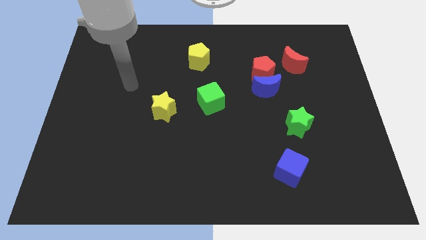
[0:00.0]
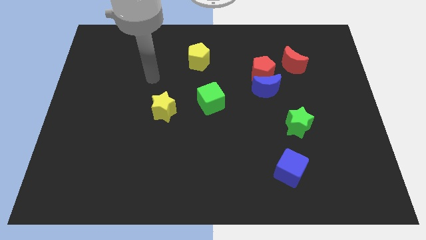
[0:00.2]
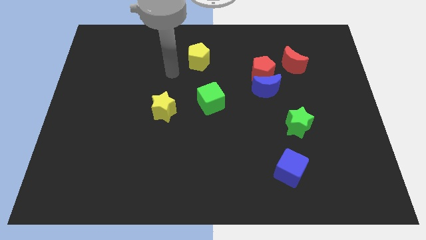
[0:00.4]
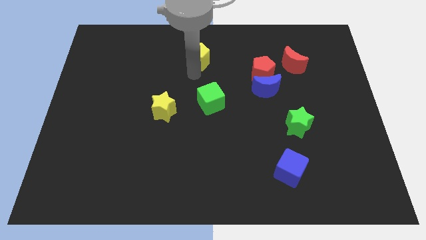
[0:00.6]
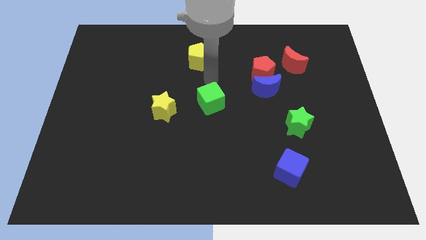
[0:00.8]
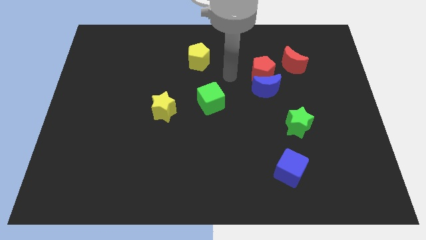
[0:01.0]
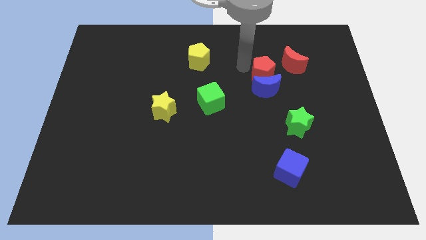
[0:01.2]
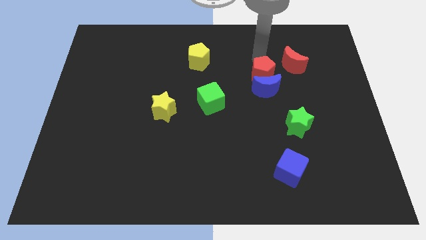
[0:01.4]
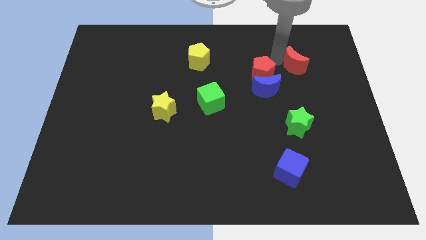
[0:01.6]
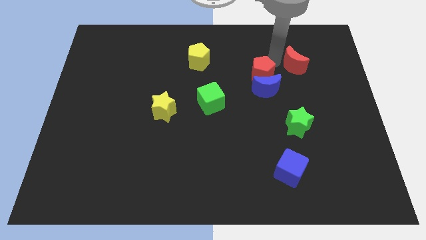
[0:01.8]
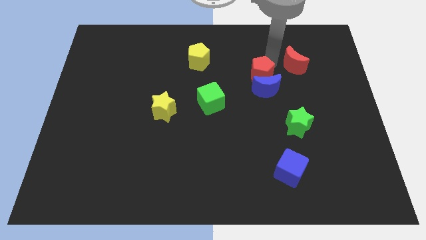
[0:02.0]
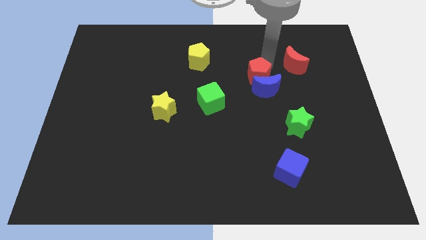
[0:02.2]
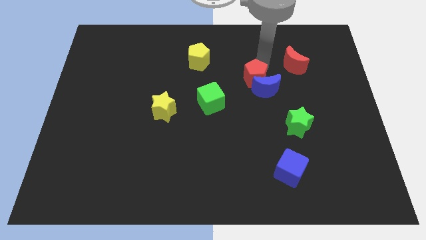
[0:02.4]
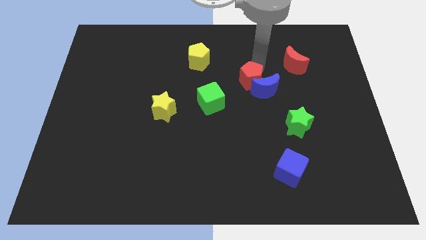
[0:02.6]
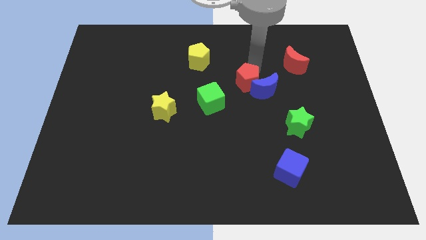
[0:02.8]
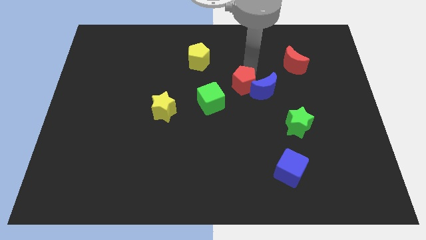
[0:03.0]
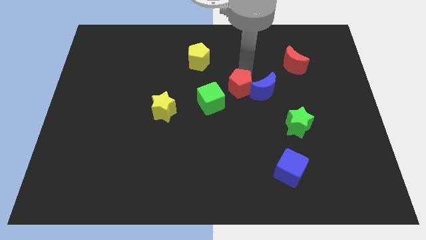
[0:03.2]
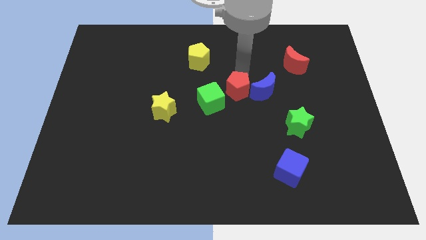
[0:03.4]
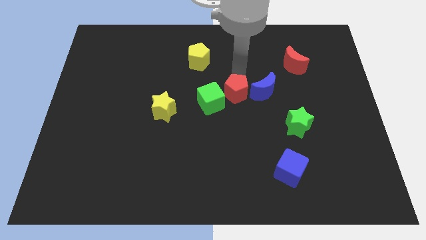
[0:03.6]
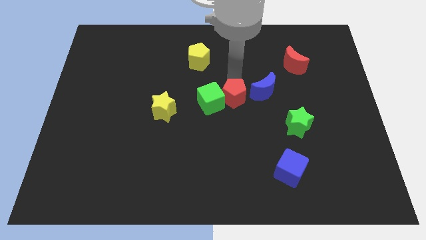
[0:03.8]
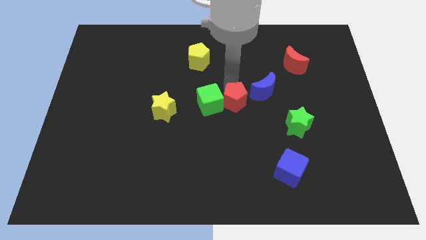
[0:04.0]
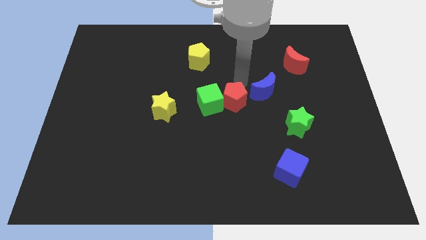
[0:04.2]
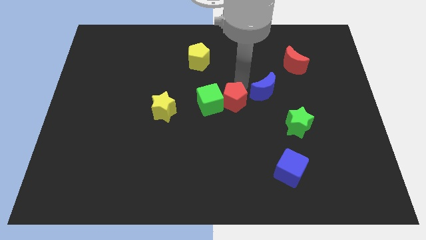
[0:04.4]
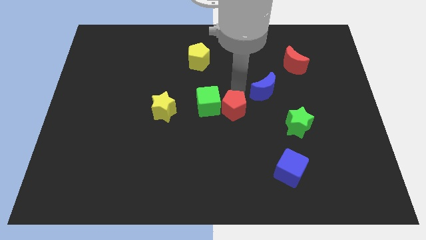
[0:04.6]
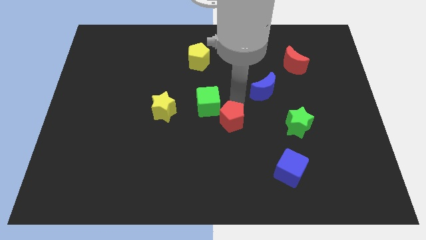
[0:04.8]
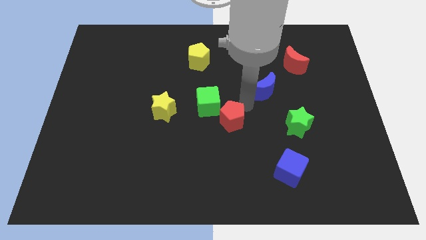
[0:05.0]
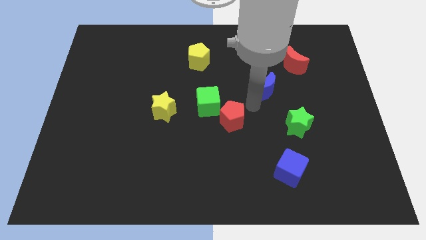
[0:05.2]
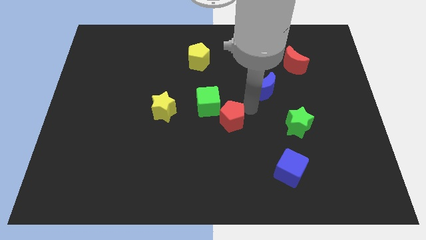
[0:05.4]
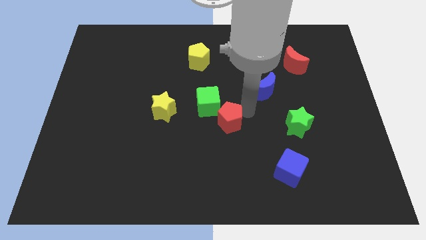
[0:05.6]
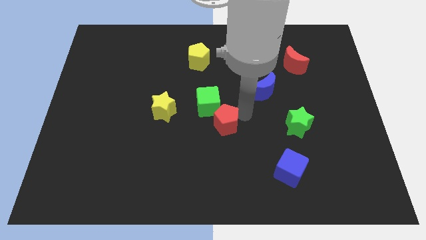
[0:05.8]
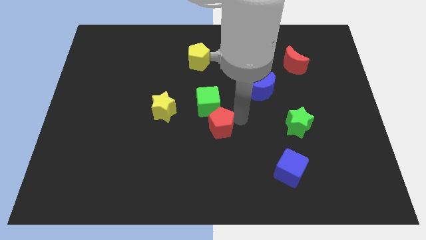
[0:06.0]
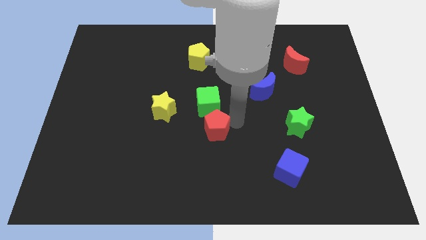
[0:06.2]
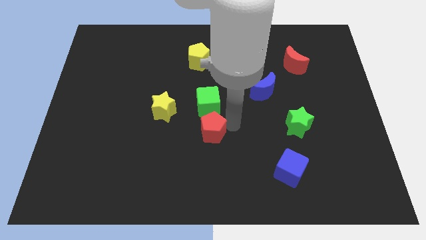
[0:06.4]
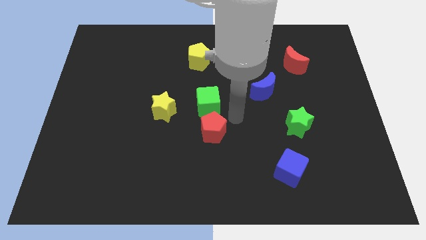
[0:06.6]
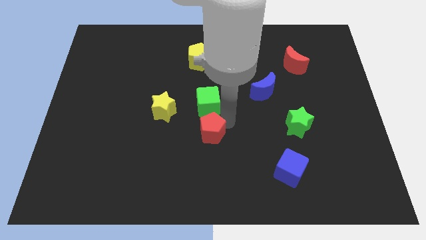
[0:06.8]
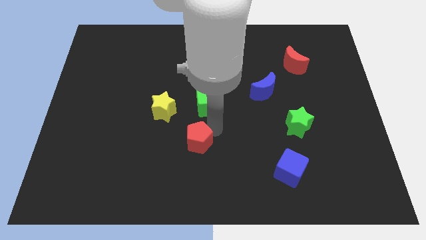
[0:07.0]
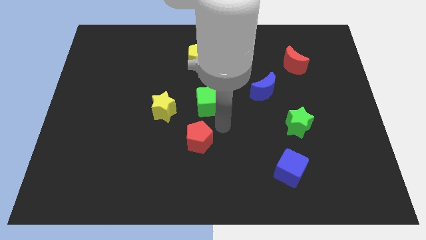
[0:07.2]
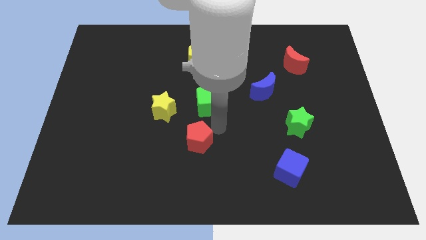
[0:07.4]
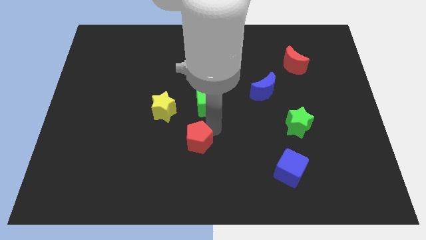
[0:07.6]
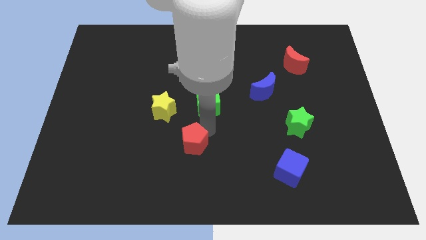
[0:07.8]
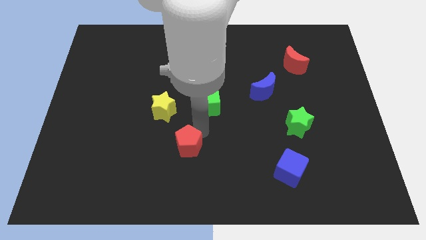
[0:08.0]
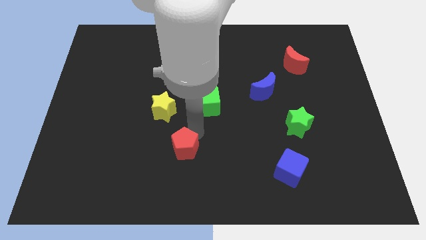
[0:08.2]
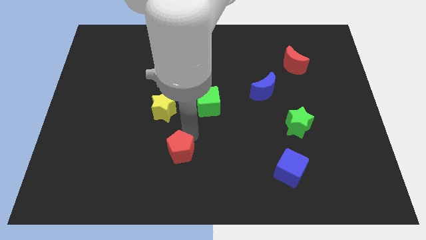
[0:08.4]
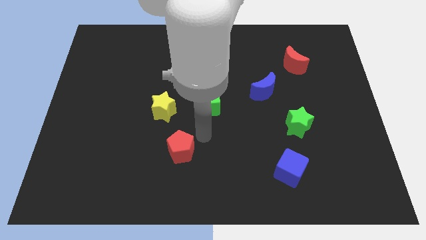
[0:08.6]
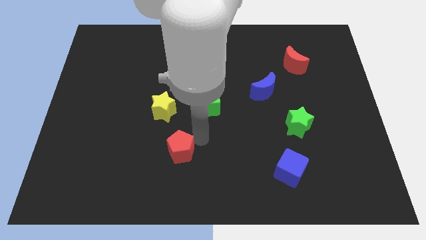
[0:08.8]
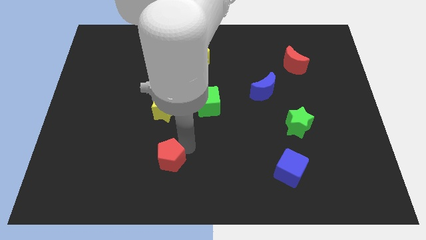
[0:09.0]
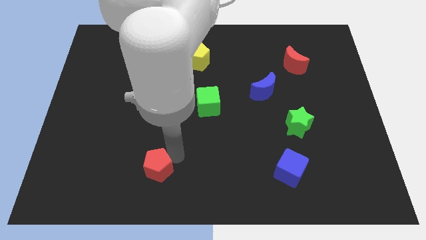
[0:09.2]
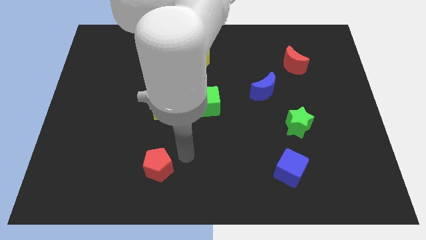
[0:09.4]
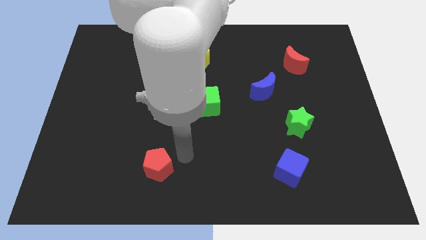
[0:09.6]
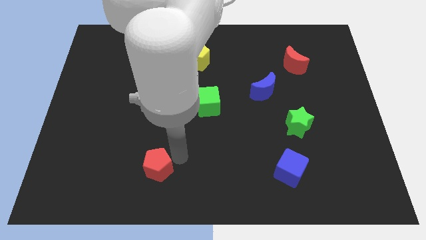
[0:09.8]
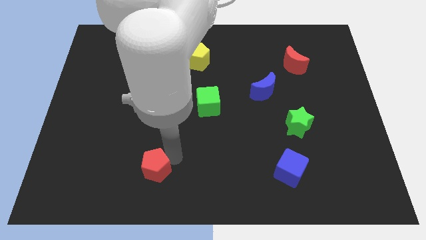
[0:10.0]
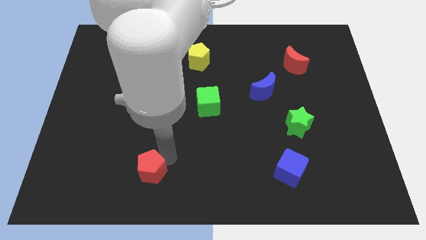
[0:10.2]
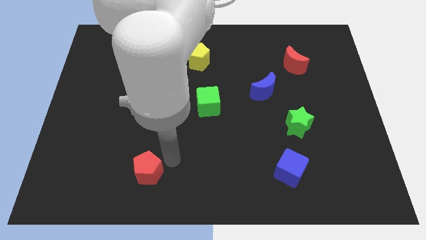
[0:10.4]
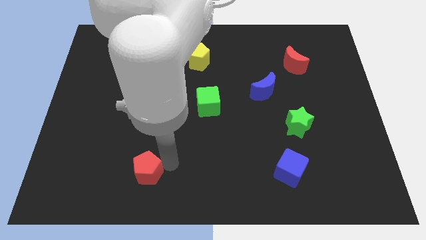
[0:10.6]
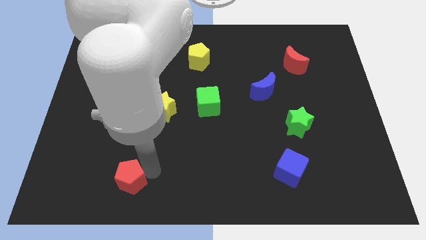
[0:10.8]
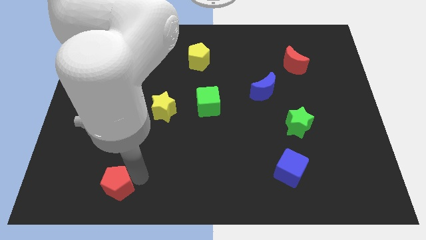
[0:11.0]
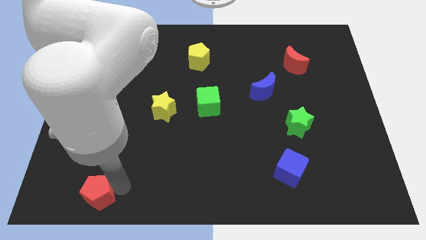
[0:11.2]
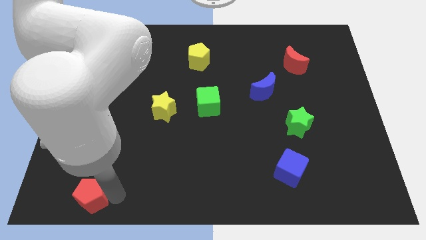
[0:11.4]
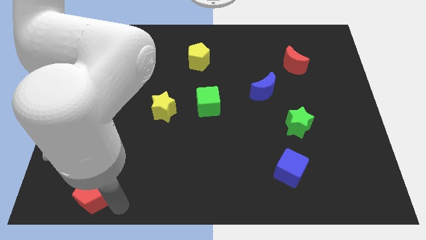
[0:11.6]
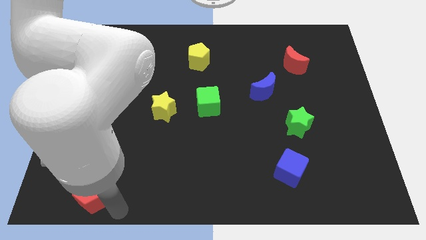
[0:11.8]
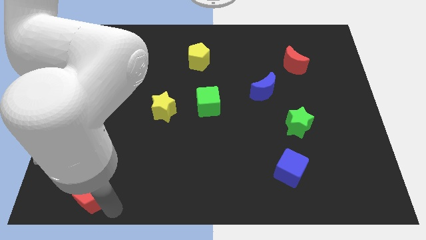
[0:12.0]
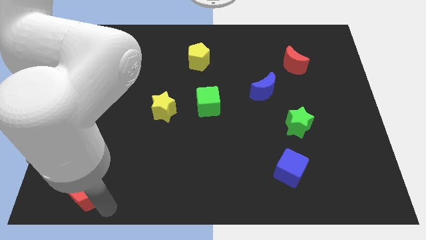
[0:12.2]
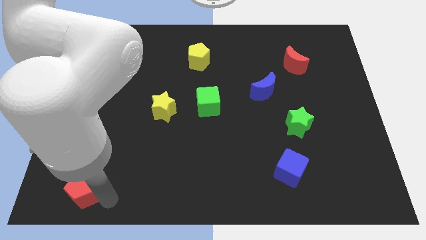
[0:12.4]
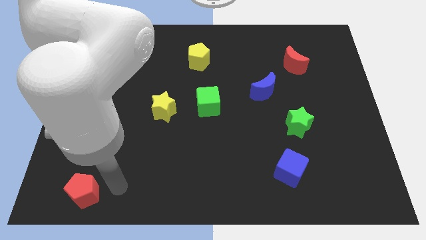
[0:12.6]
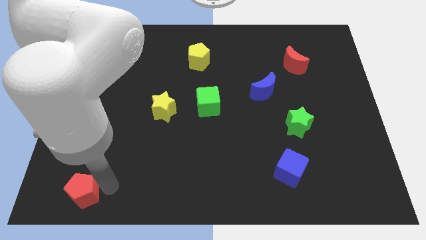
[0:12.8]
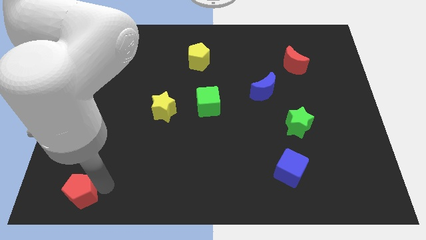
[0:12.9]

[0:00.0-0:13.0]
slide the red pentagon to the bottom left of the board
